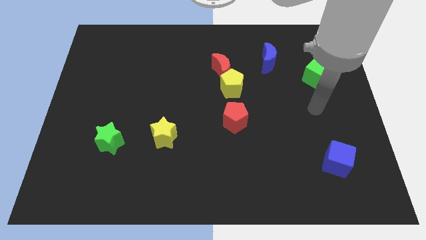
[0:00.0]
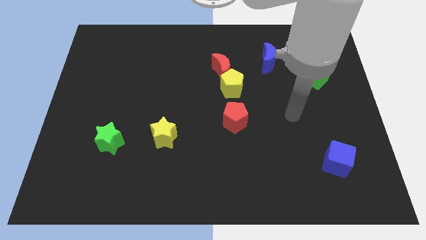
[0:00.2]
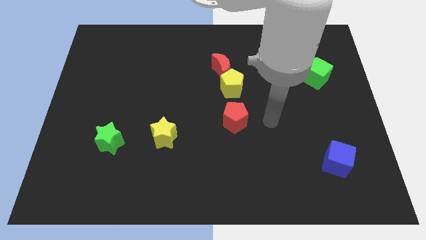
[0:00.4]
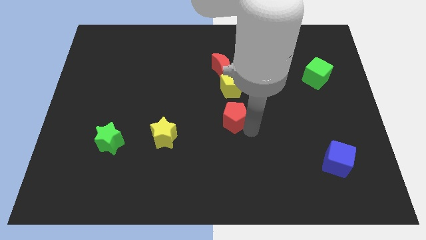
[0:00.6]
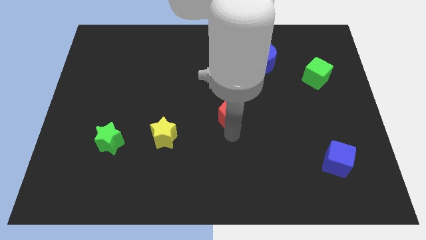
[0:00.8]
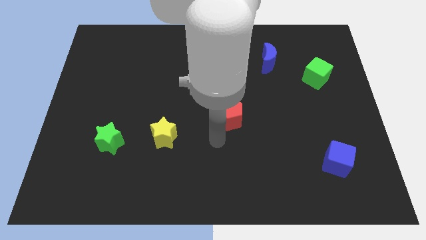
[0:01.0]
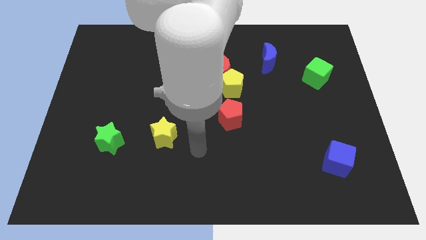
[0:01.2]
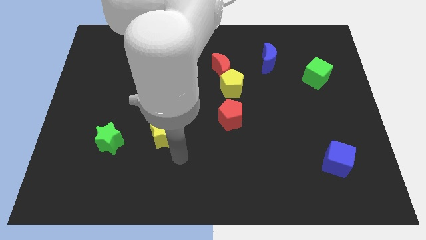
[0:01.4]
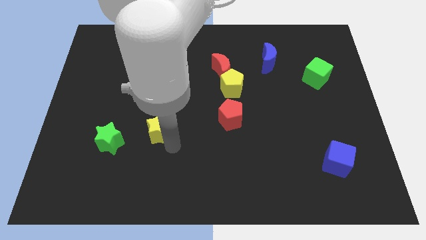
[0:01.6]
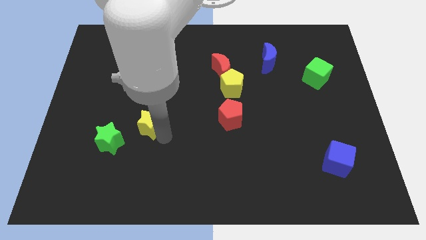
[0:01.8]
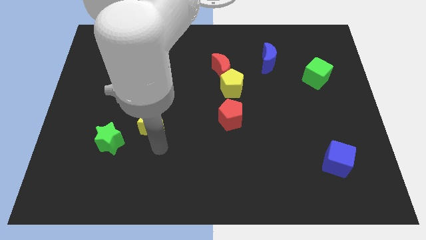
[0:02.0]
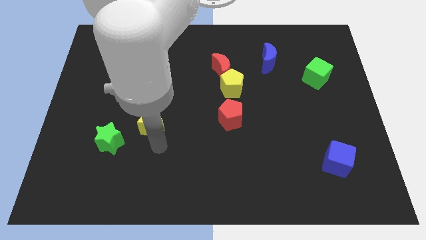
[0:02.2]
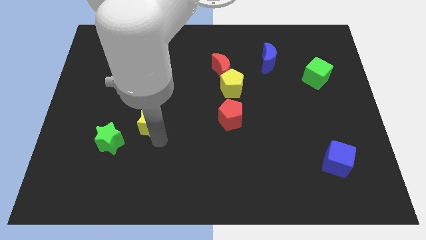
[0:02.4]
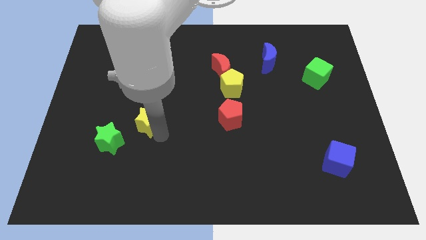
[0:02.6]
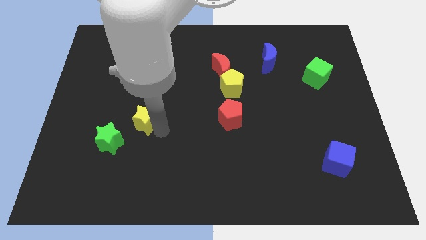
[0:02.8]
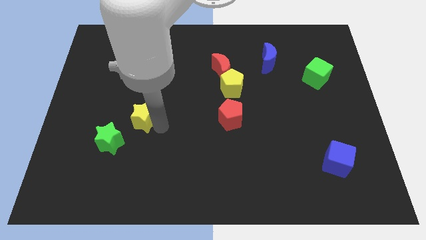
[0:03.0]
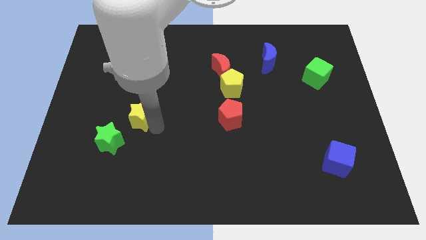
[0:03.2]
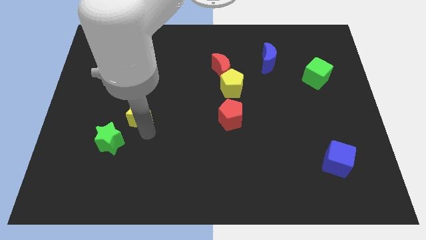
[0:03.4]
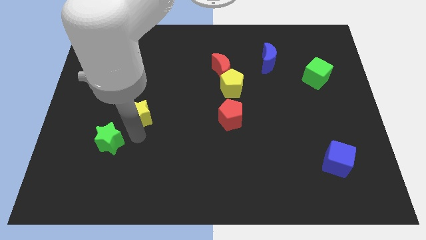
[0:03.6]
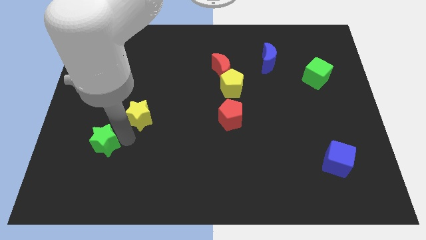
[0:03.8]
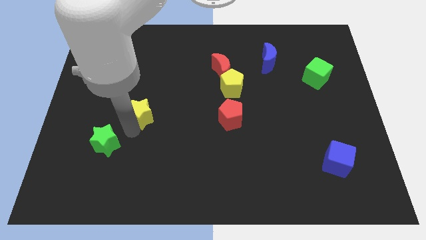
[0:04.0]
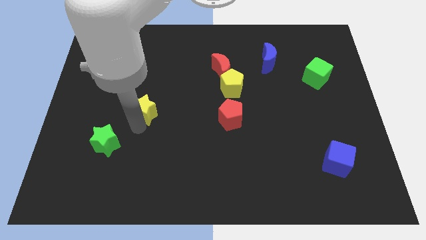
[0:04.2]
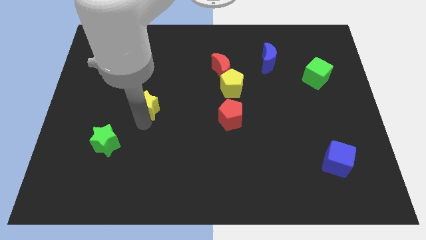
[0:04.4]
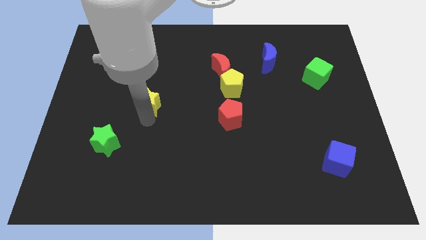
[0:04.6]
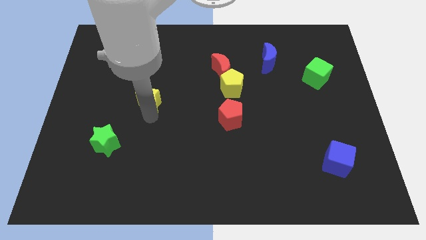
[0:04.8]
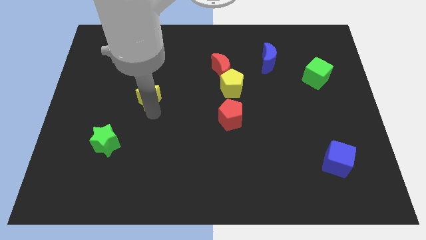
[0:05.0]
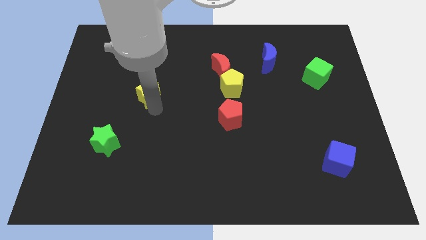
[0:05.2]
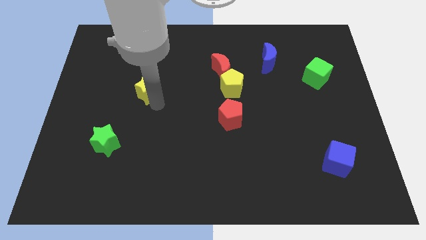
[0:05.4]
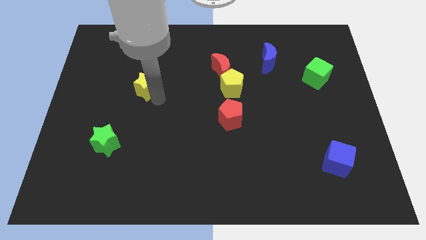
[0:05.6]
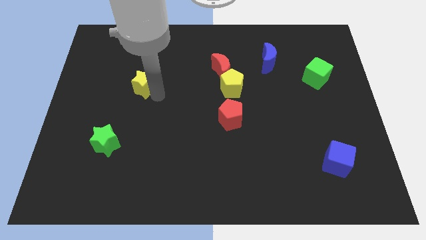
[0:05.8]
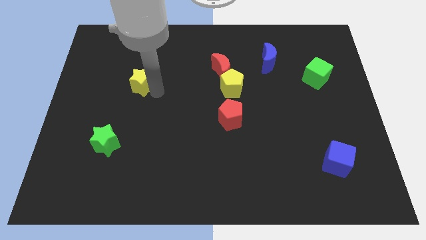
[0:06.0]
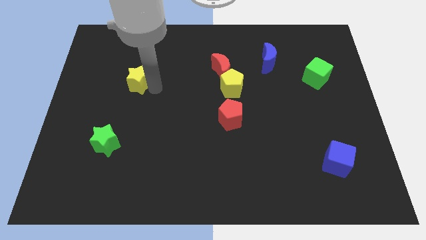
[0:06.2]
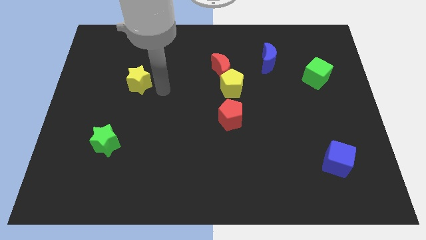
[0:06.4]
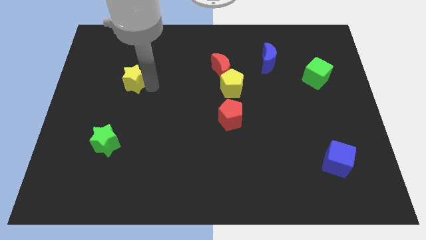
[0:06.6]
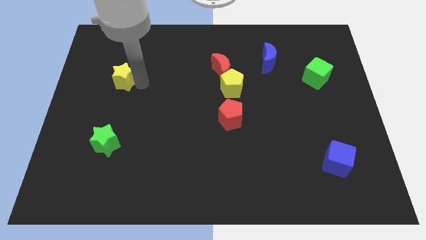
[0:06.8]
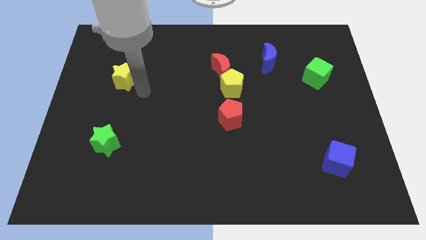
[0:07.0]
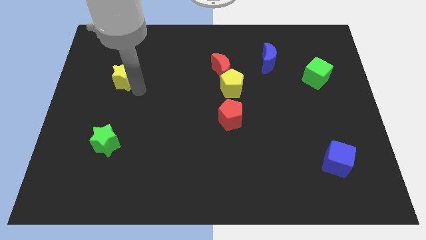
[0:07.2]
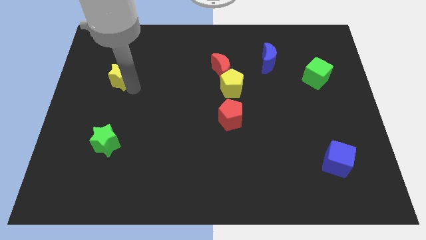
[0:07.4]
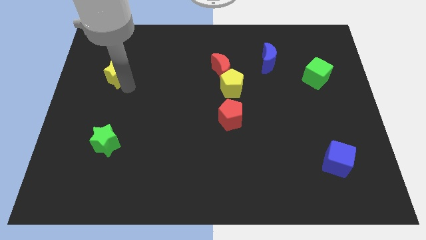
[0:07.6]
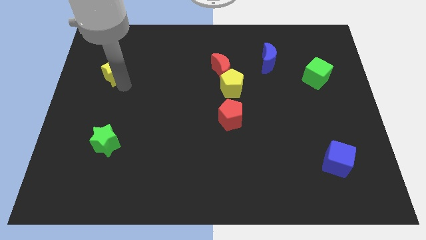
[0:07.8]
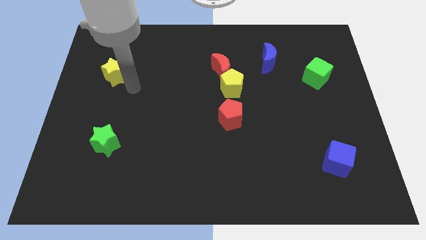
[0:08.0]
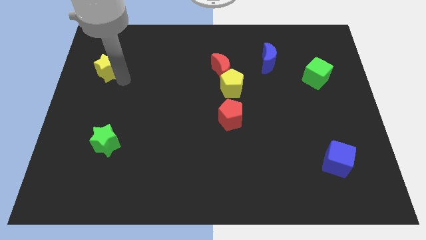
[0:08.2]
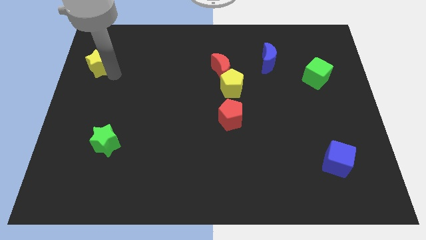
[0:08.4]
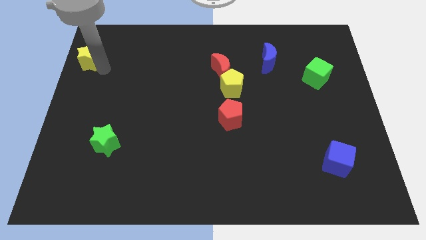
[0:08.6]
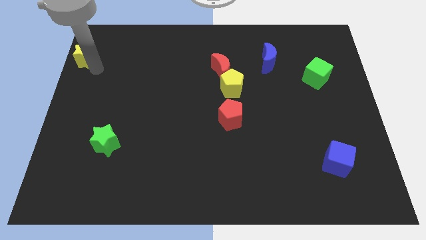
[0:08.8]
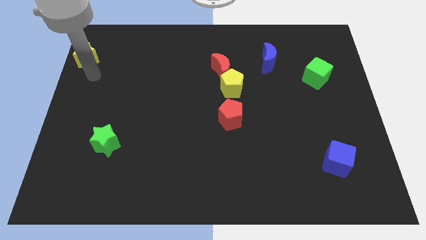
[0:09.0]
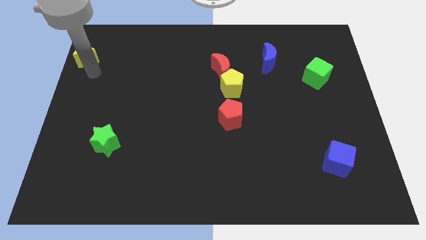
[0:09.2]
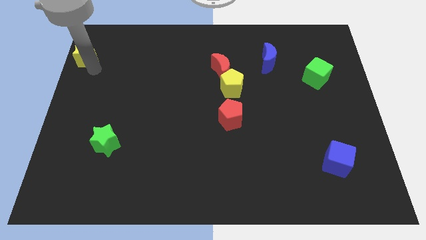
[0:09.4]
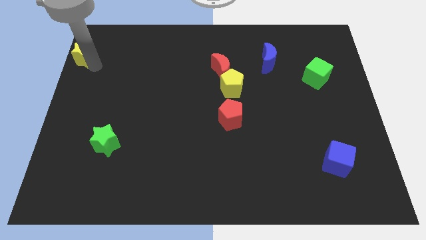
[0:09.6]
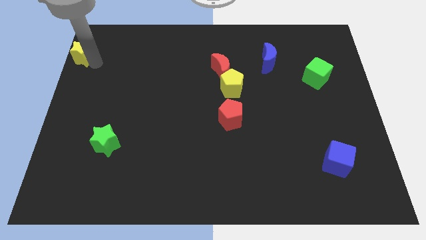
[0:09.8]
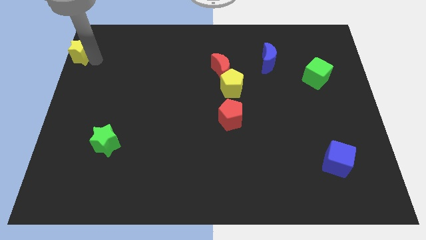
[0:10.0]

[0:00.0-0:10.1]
put the yellow star to the top left

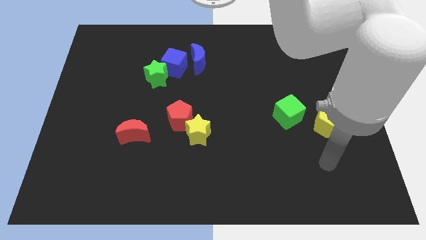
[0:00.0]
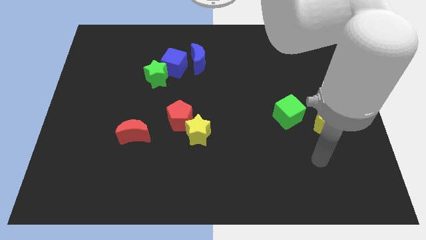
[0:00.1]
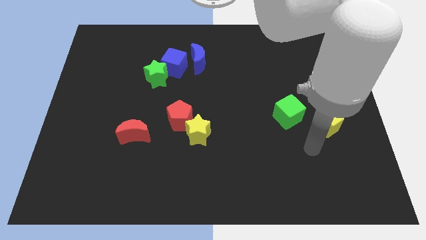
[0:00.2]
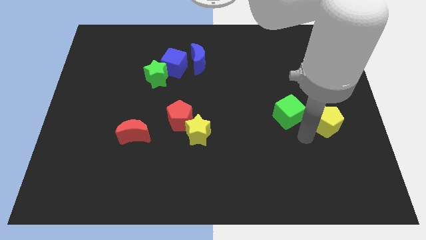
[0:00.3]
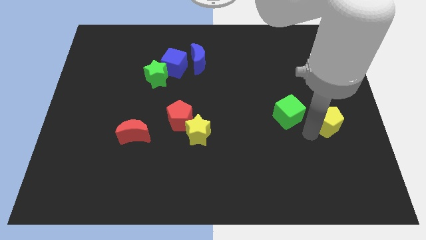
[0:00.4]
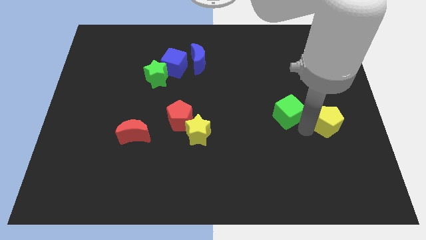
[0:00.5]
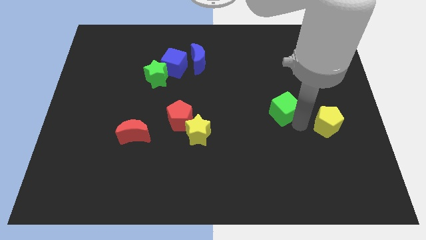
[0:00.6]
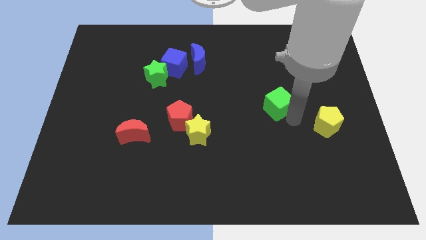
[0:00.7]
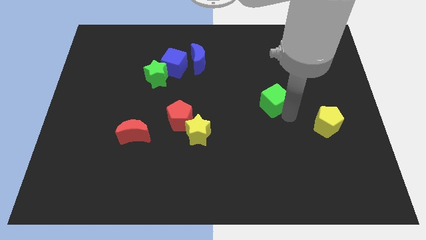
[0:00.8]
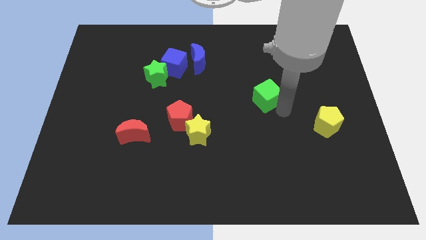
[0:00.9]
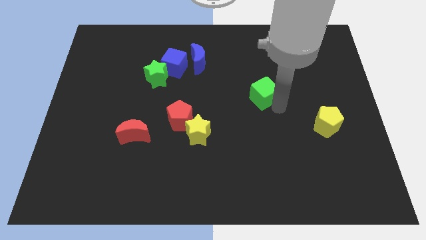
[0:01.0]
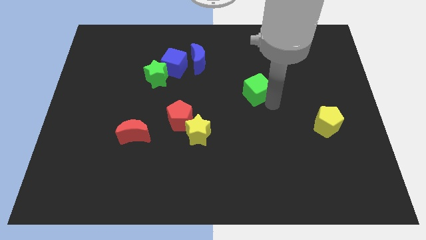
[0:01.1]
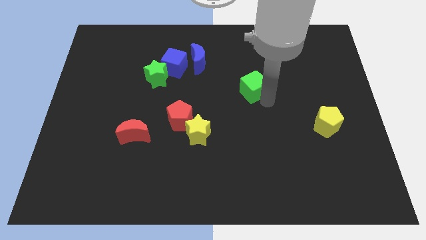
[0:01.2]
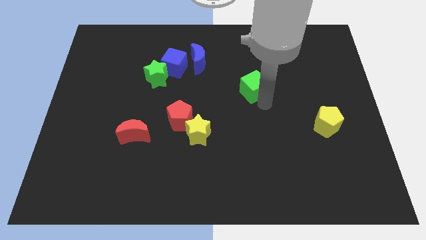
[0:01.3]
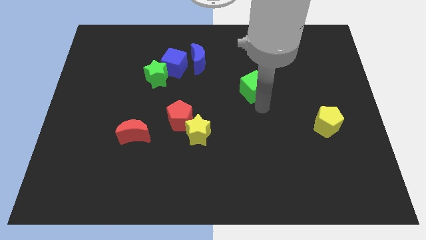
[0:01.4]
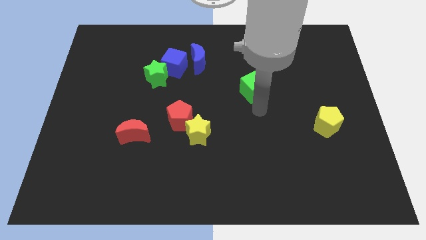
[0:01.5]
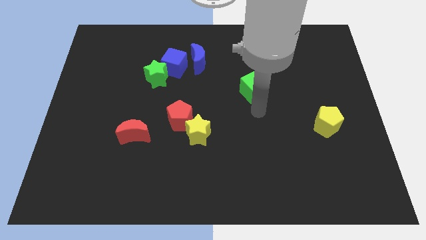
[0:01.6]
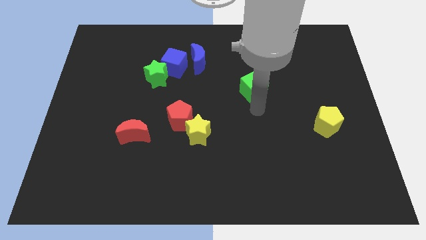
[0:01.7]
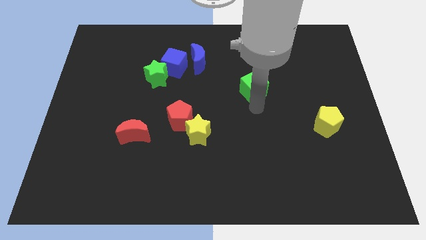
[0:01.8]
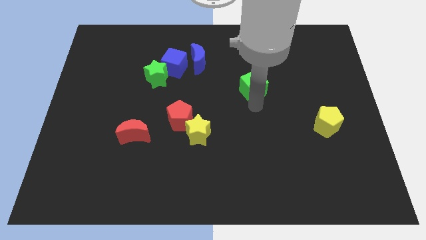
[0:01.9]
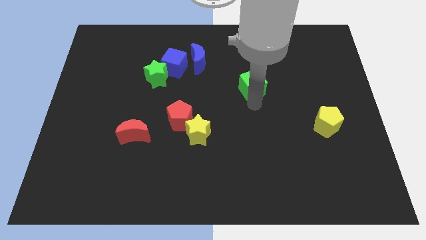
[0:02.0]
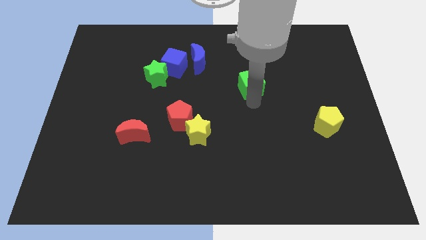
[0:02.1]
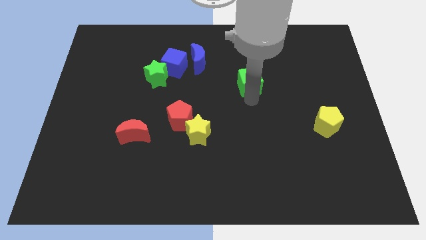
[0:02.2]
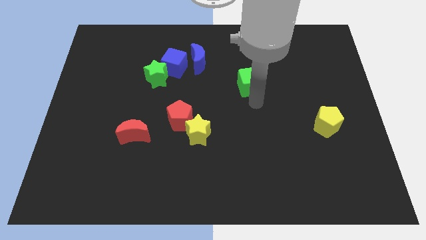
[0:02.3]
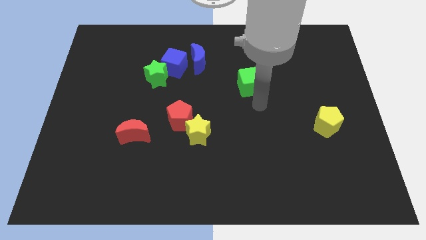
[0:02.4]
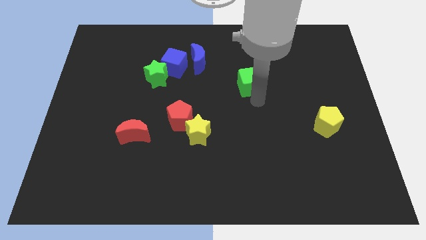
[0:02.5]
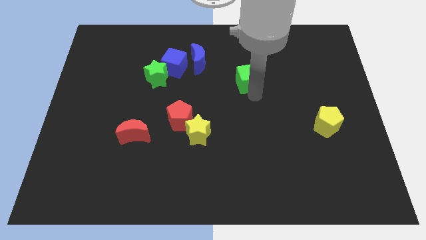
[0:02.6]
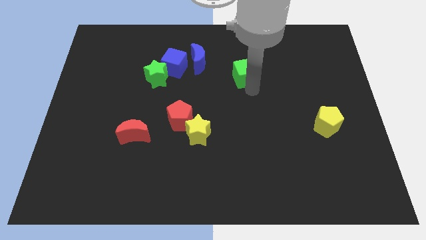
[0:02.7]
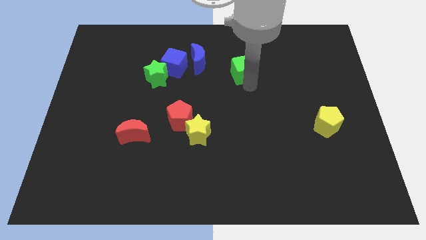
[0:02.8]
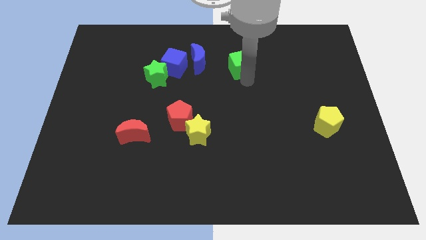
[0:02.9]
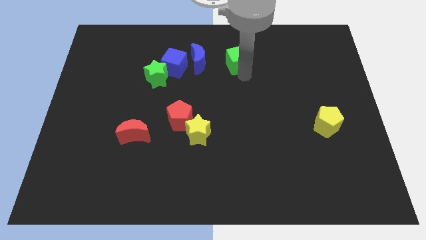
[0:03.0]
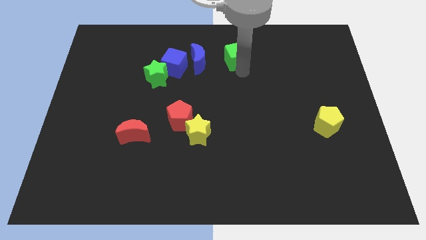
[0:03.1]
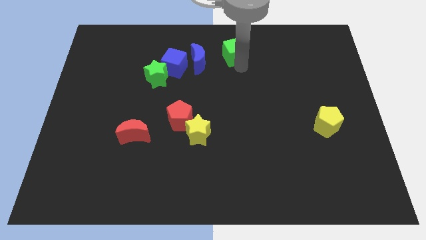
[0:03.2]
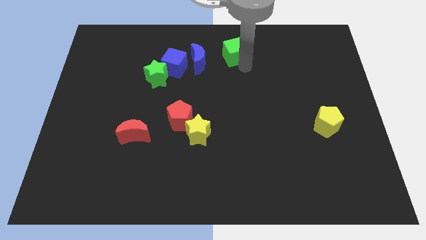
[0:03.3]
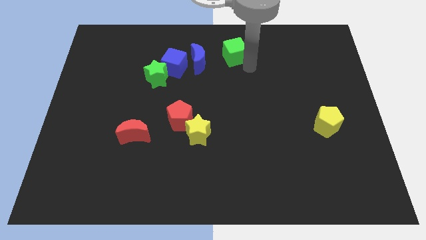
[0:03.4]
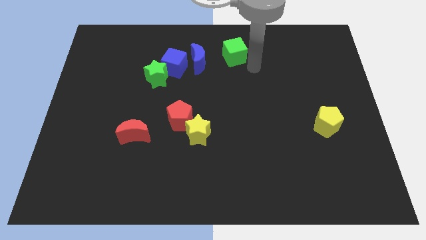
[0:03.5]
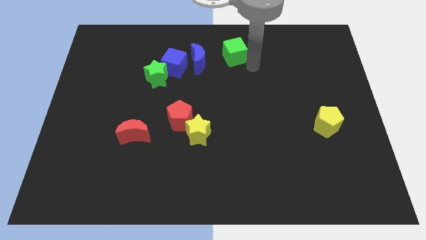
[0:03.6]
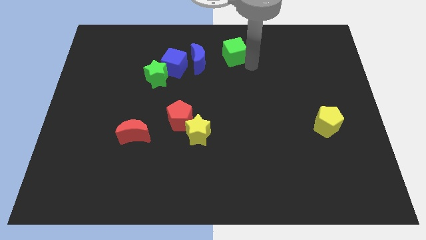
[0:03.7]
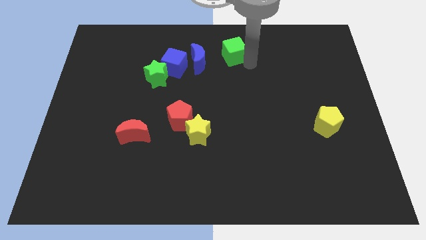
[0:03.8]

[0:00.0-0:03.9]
push the green cube to the top
